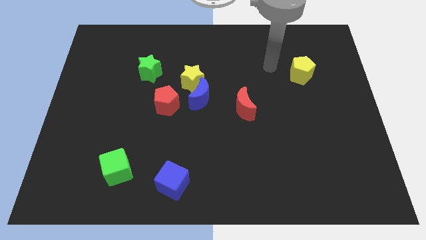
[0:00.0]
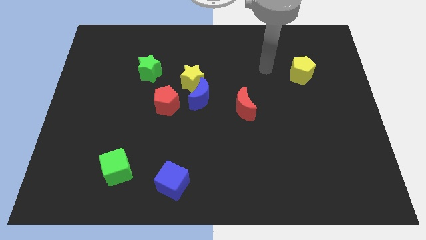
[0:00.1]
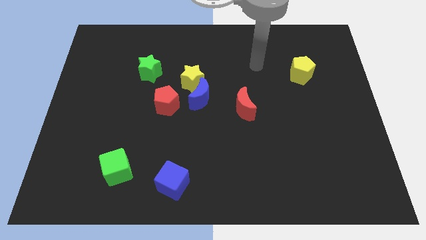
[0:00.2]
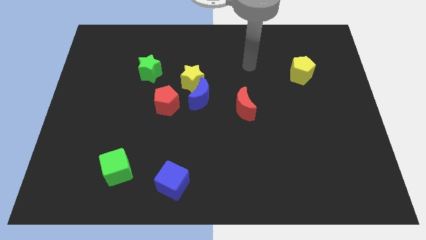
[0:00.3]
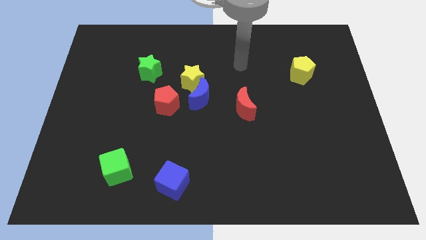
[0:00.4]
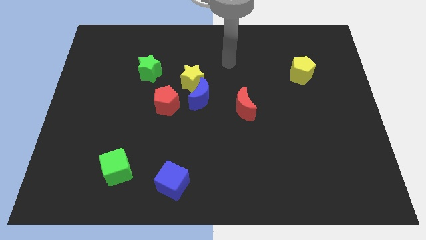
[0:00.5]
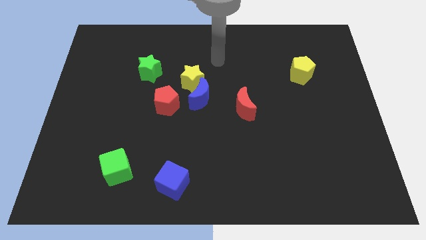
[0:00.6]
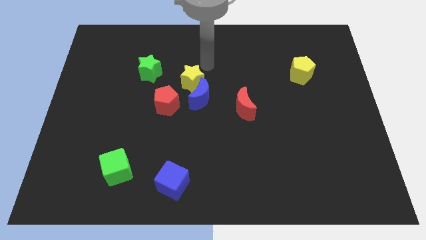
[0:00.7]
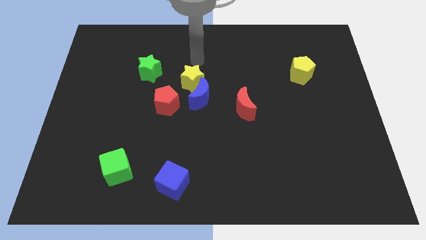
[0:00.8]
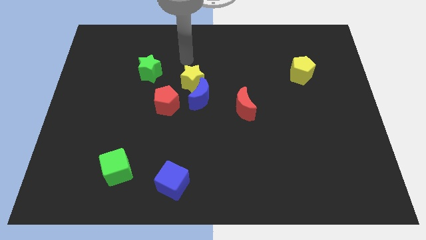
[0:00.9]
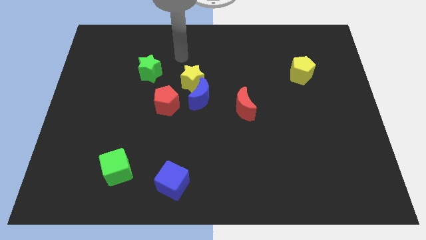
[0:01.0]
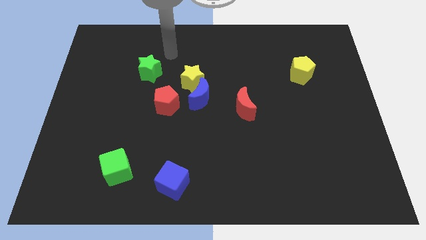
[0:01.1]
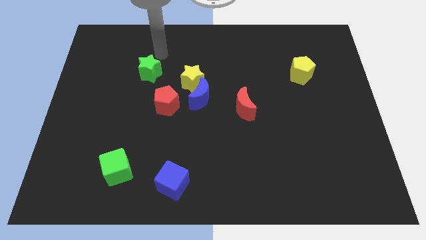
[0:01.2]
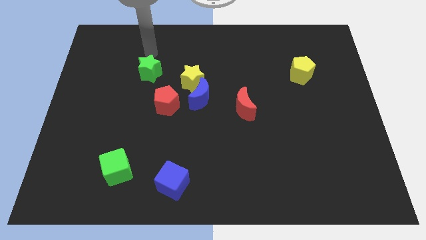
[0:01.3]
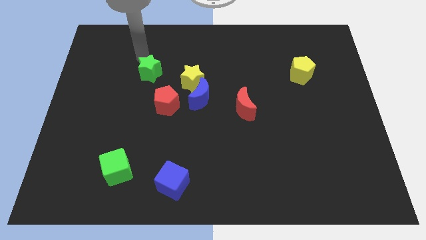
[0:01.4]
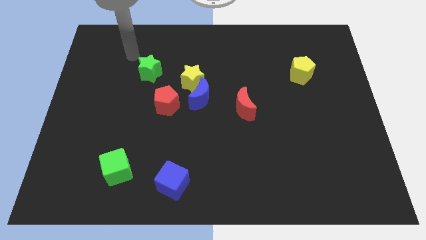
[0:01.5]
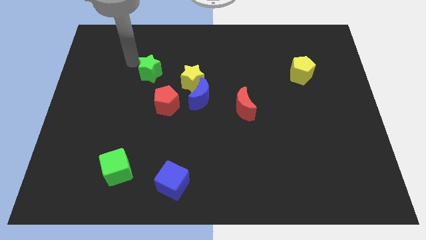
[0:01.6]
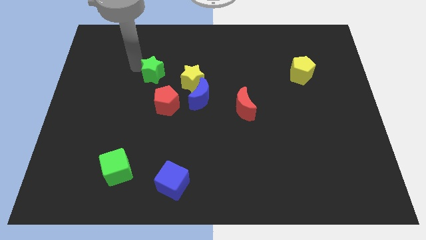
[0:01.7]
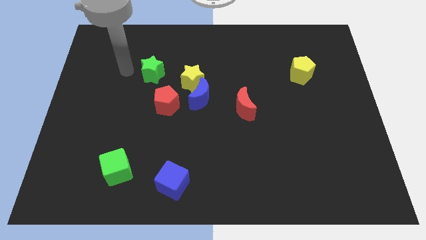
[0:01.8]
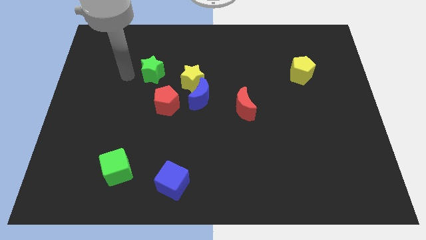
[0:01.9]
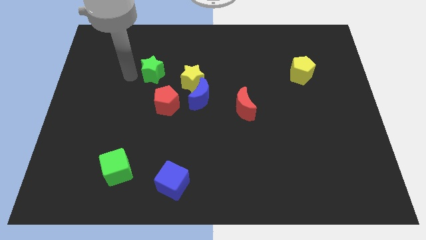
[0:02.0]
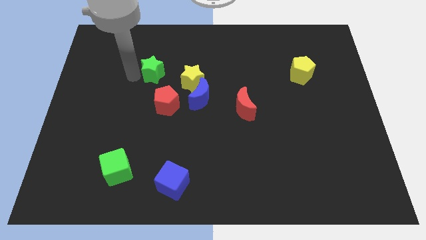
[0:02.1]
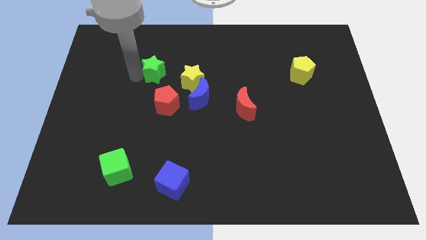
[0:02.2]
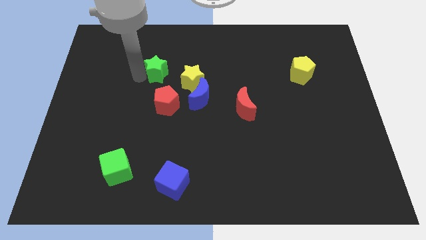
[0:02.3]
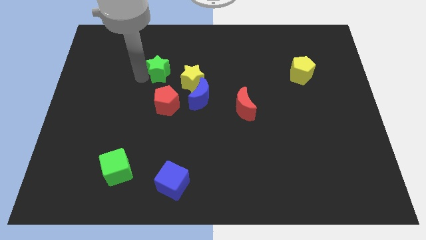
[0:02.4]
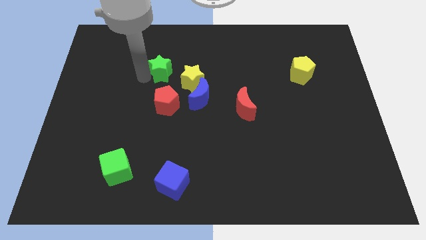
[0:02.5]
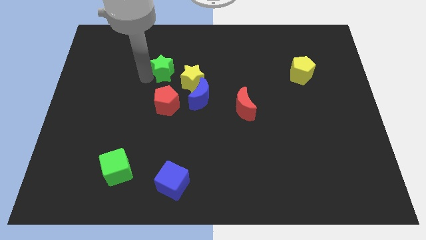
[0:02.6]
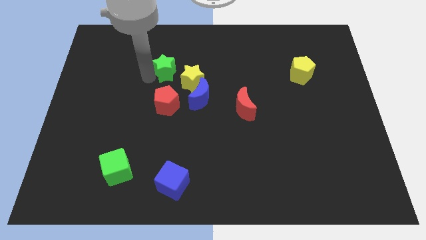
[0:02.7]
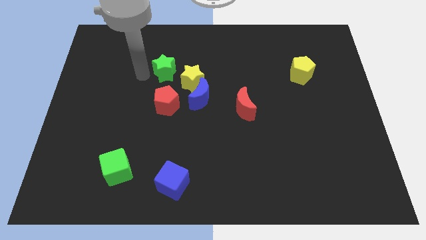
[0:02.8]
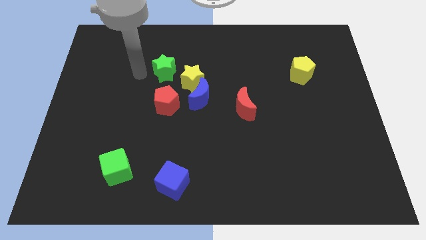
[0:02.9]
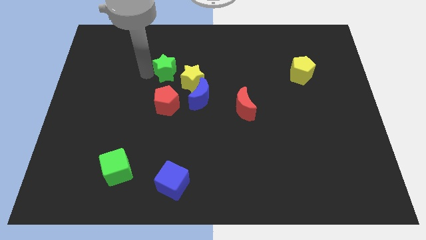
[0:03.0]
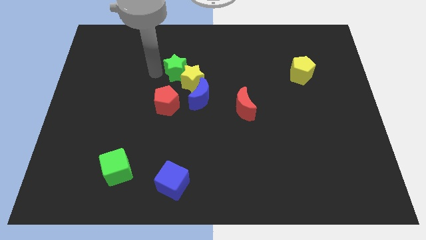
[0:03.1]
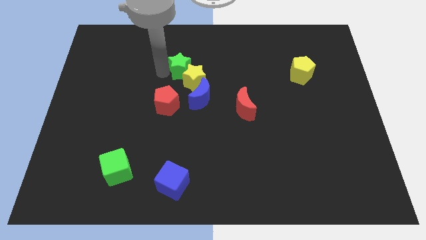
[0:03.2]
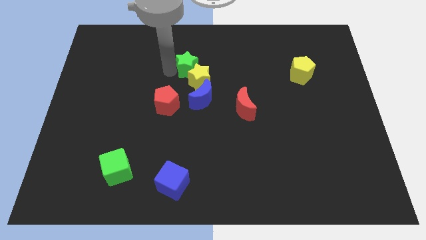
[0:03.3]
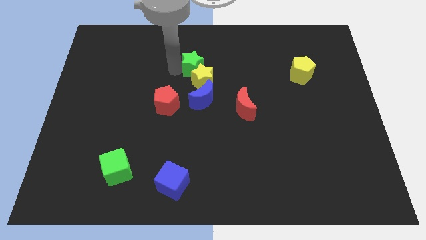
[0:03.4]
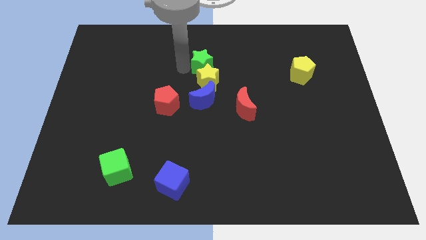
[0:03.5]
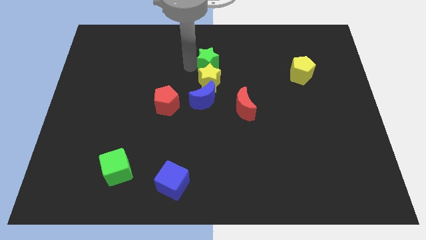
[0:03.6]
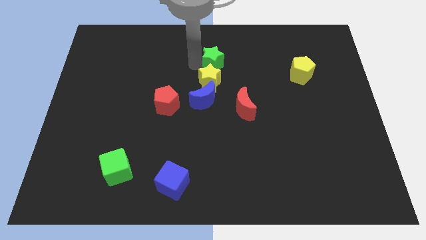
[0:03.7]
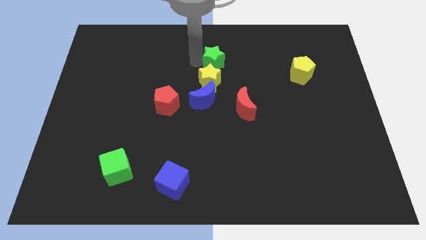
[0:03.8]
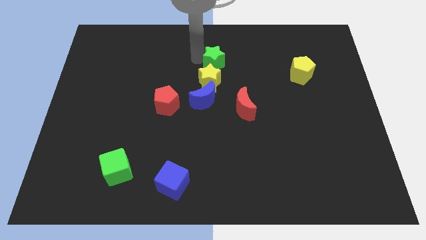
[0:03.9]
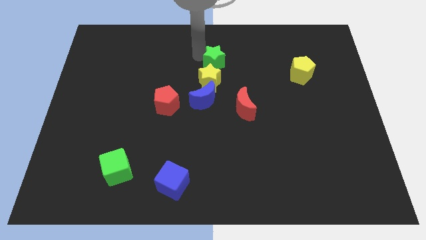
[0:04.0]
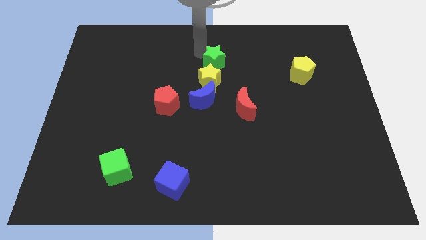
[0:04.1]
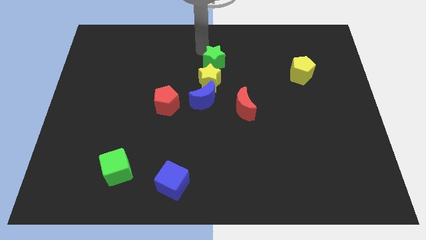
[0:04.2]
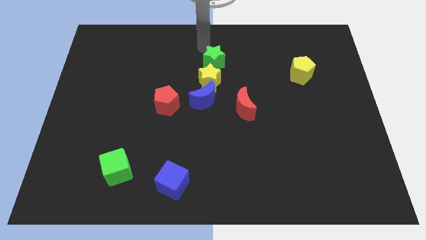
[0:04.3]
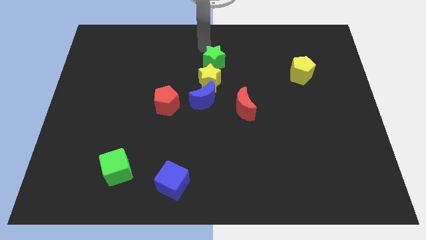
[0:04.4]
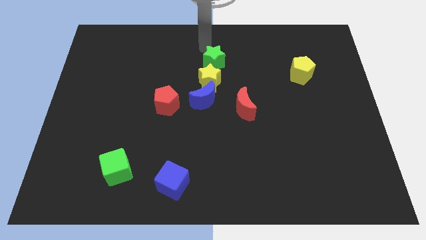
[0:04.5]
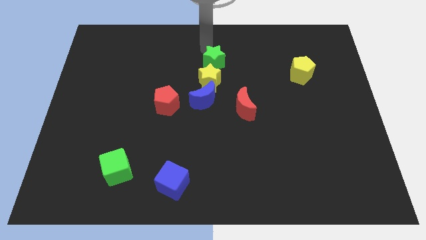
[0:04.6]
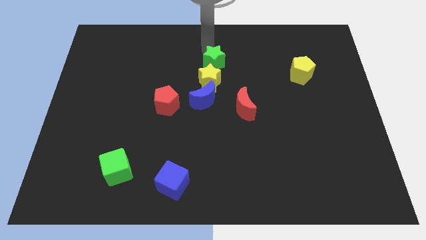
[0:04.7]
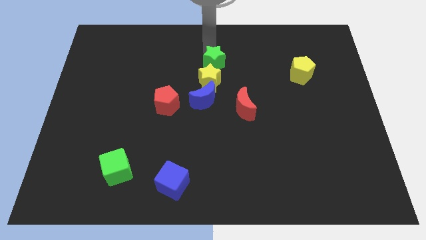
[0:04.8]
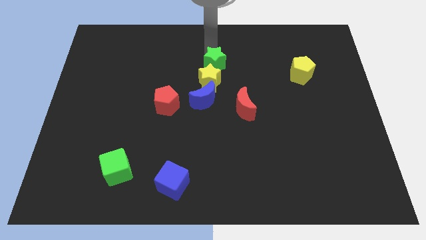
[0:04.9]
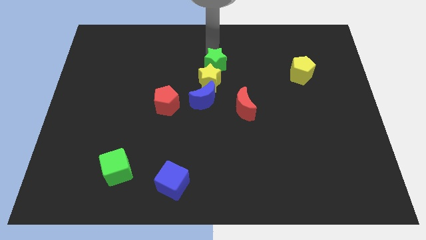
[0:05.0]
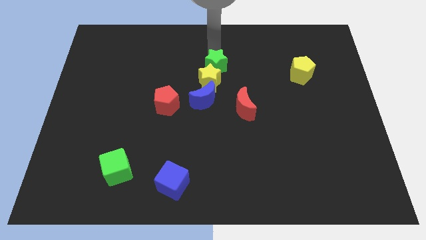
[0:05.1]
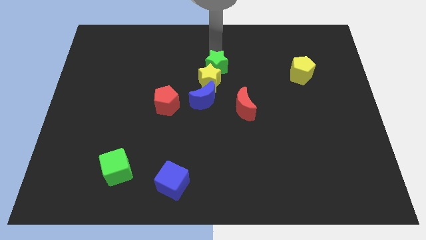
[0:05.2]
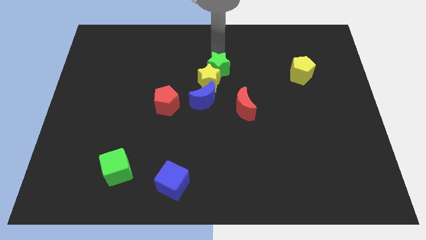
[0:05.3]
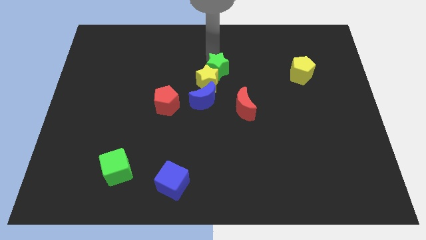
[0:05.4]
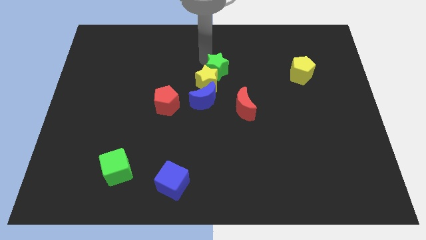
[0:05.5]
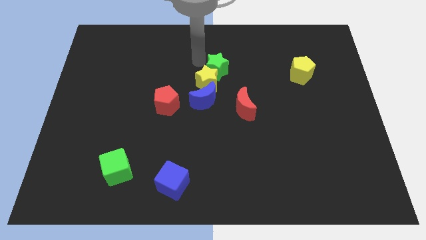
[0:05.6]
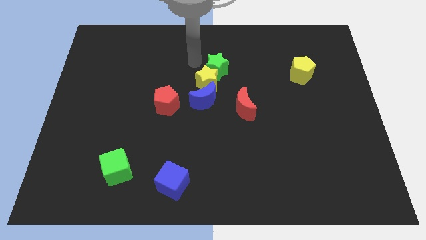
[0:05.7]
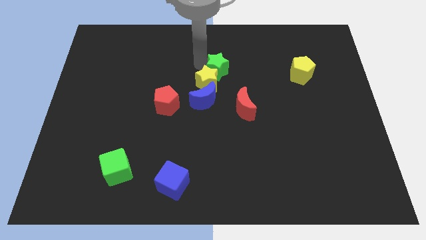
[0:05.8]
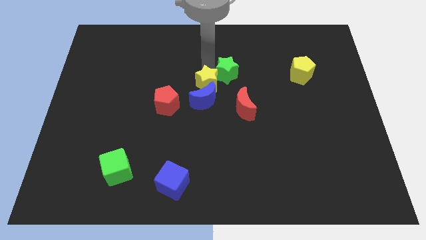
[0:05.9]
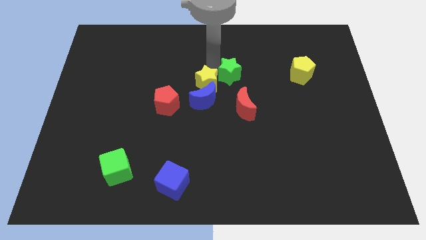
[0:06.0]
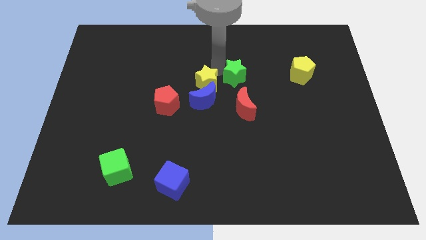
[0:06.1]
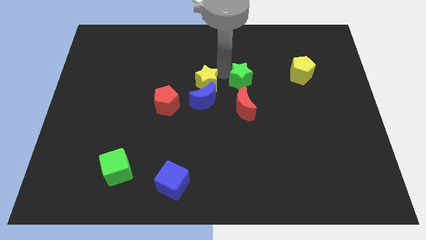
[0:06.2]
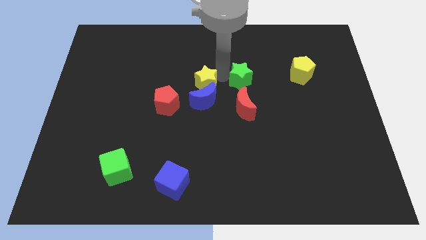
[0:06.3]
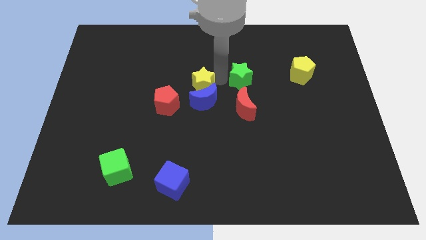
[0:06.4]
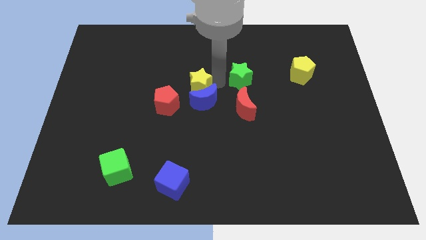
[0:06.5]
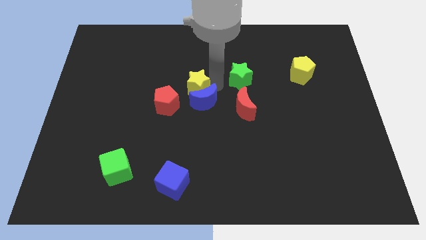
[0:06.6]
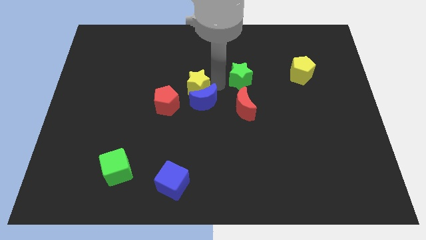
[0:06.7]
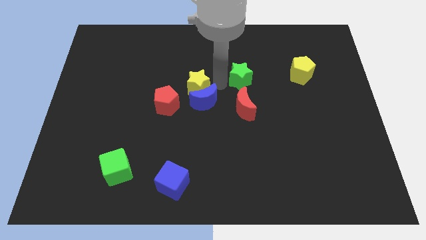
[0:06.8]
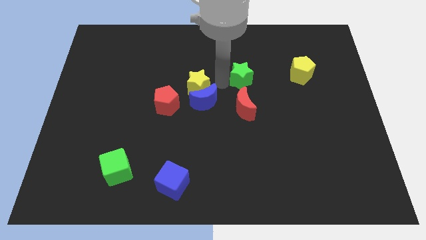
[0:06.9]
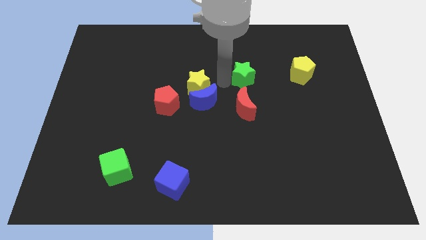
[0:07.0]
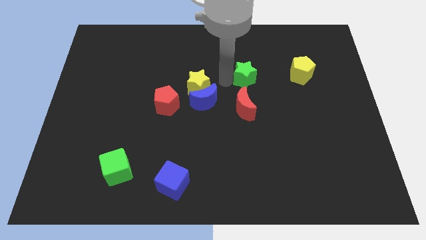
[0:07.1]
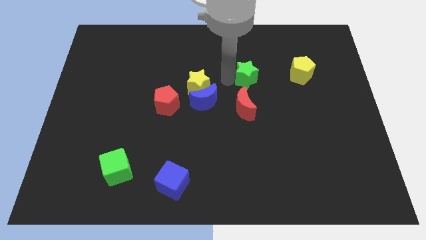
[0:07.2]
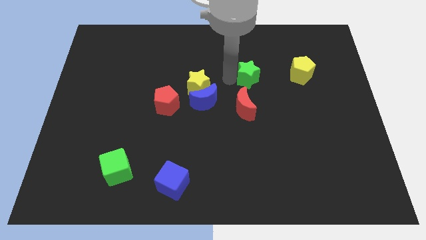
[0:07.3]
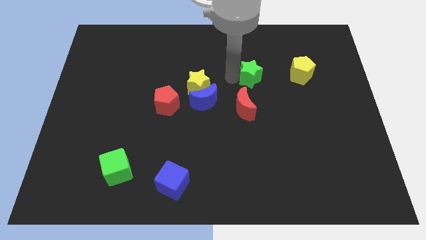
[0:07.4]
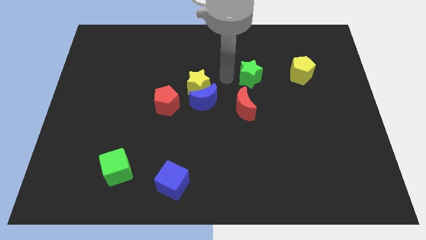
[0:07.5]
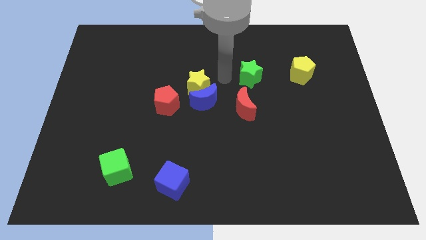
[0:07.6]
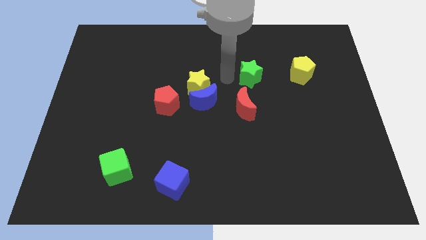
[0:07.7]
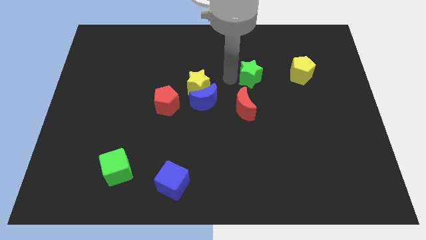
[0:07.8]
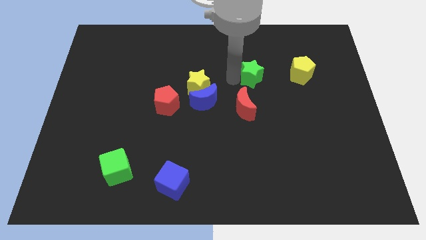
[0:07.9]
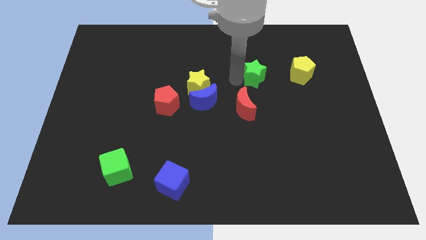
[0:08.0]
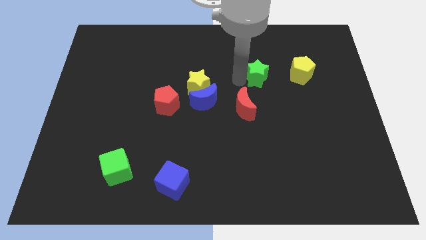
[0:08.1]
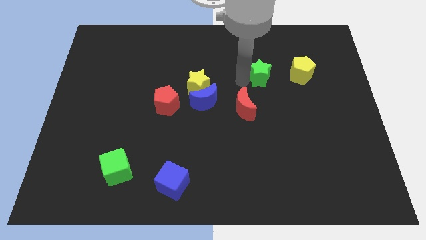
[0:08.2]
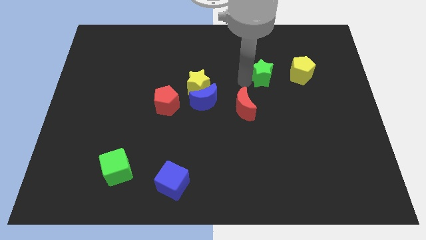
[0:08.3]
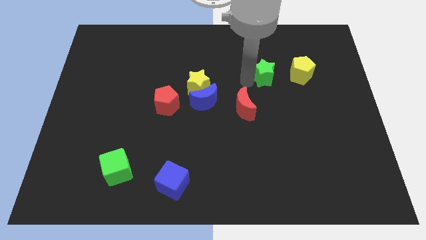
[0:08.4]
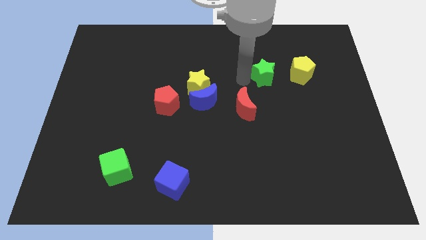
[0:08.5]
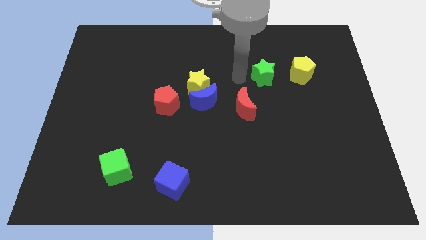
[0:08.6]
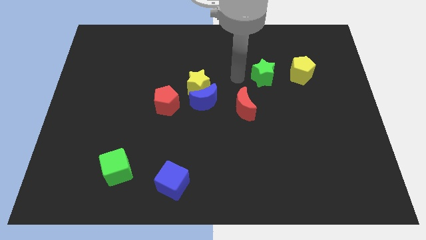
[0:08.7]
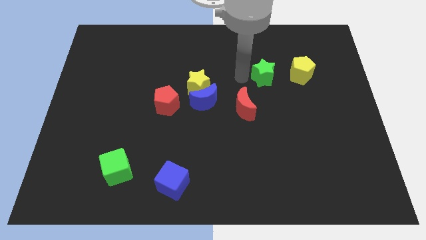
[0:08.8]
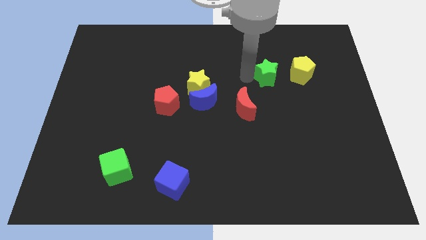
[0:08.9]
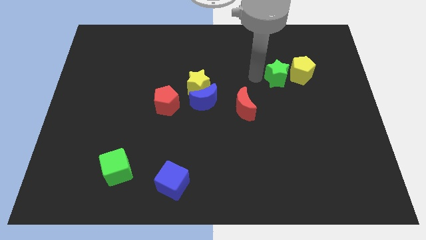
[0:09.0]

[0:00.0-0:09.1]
push the green star towards the yellow pentagon
